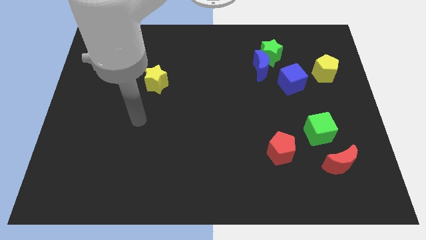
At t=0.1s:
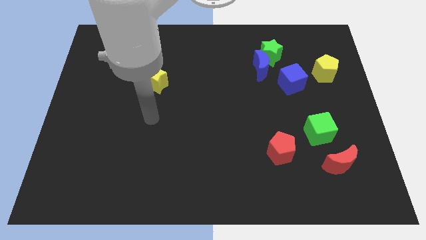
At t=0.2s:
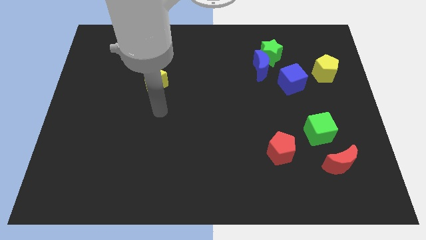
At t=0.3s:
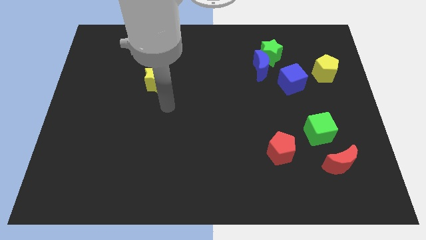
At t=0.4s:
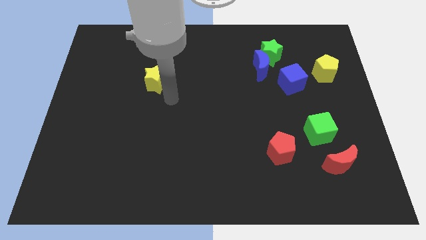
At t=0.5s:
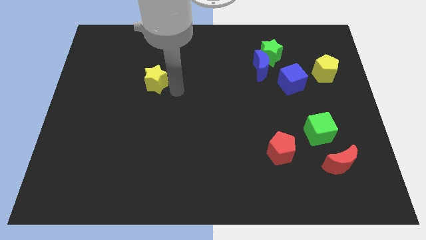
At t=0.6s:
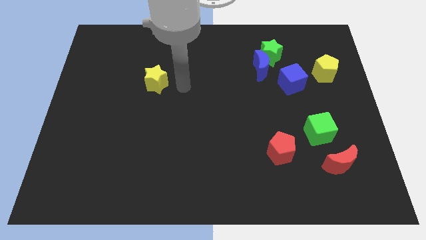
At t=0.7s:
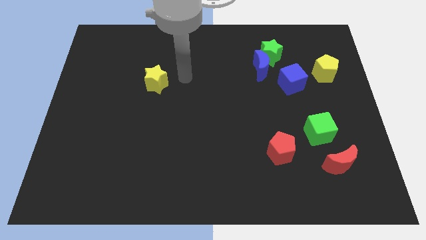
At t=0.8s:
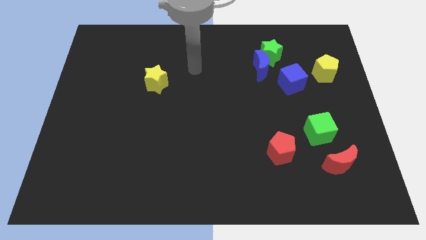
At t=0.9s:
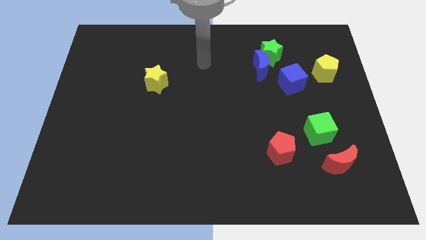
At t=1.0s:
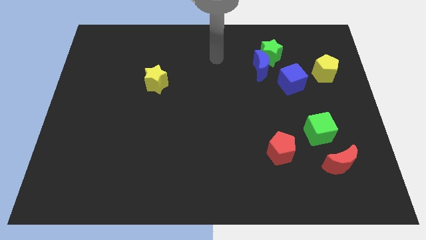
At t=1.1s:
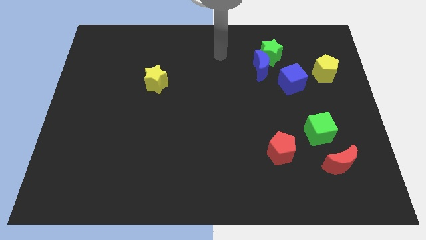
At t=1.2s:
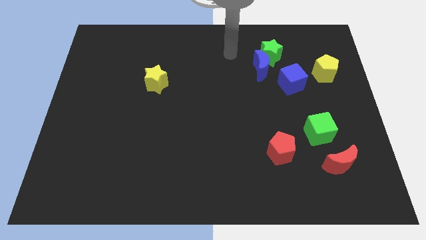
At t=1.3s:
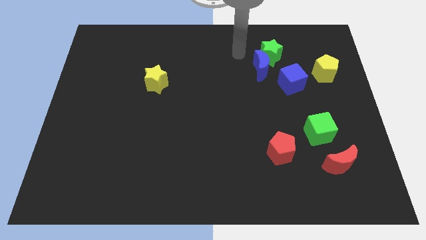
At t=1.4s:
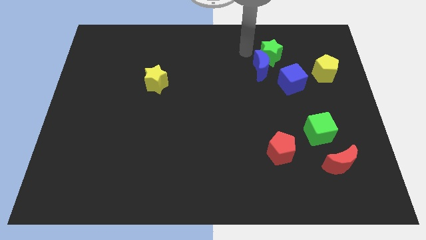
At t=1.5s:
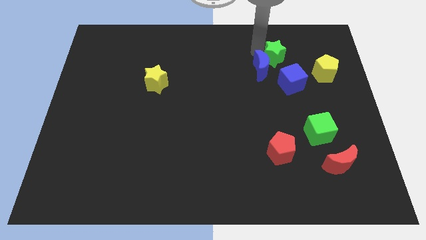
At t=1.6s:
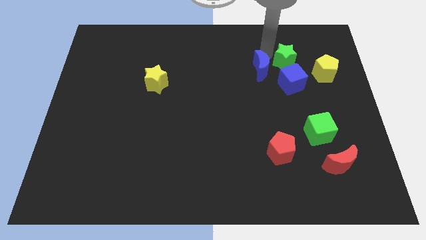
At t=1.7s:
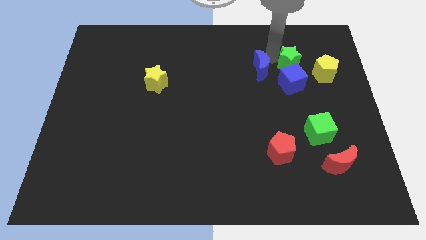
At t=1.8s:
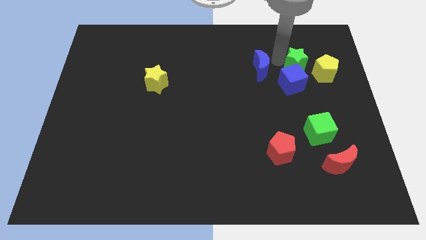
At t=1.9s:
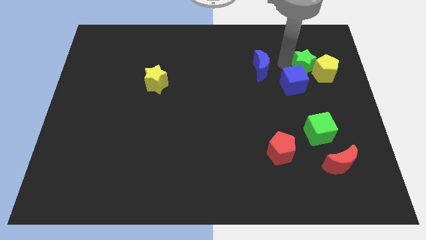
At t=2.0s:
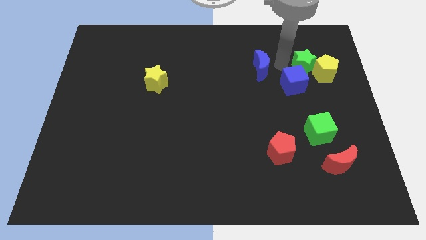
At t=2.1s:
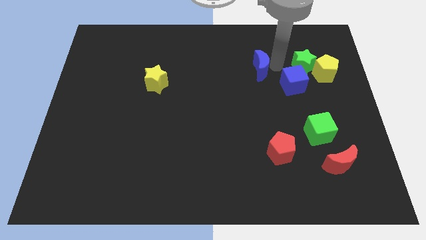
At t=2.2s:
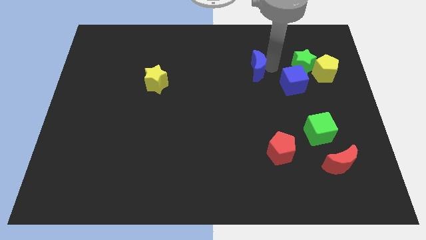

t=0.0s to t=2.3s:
move the blue moon away from the green star and blue cube

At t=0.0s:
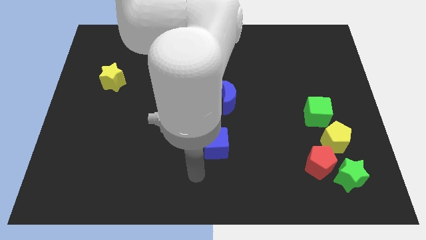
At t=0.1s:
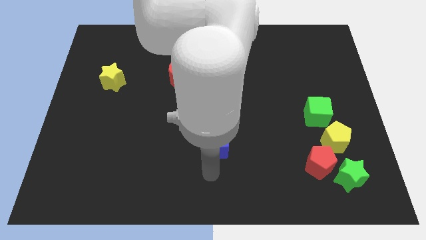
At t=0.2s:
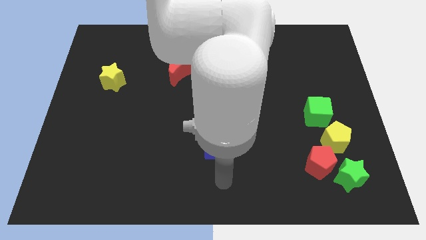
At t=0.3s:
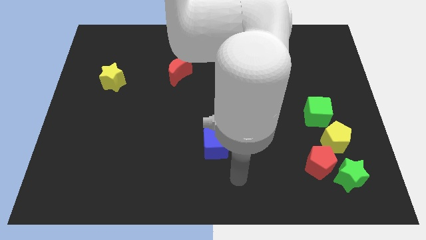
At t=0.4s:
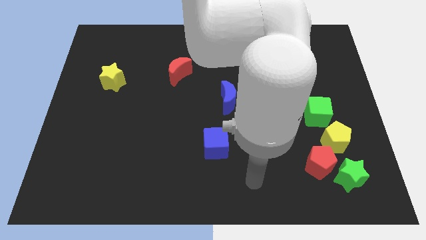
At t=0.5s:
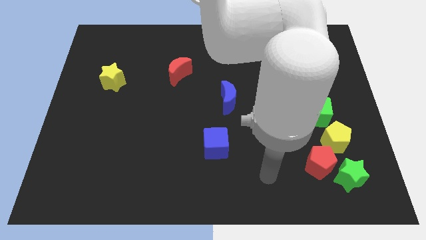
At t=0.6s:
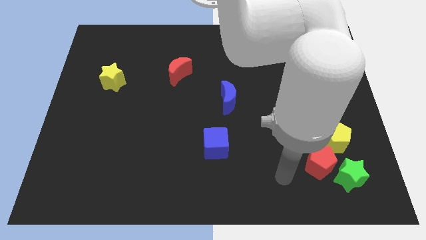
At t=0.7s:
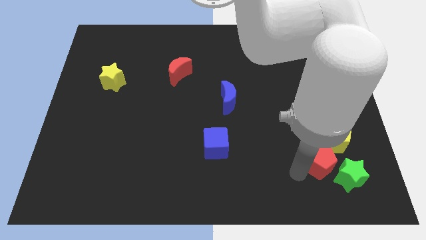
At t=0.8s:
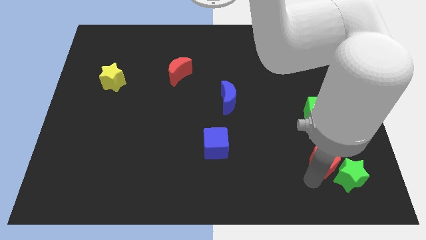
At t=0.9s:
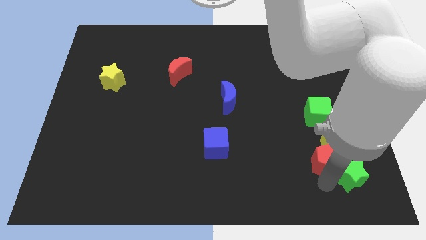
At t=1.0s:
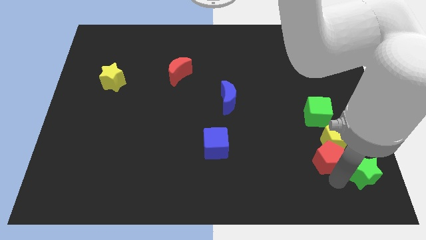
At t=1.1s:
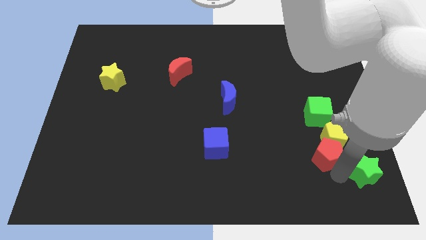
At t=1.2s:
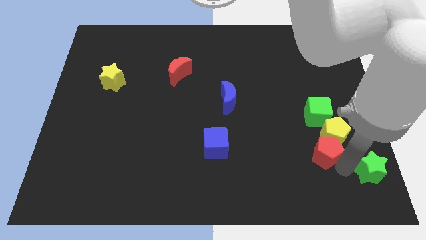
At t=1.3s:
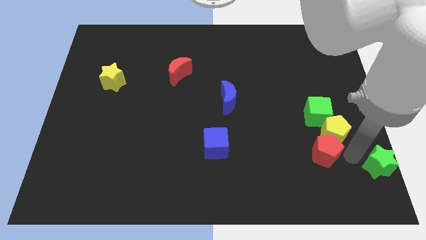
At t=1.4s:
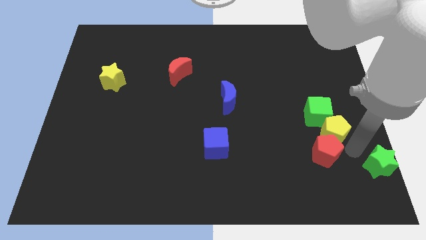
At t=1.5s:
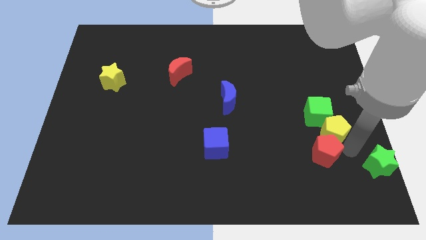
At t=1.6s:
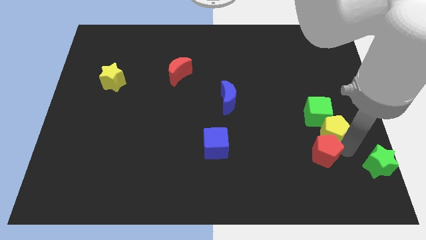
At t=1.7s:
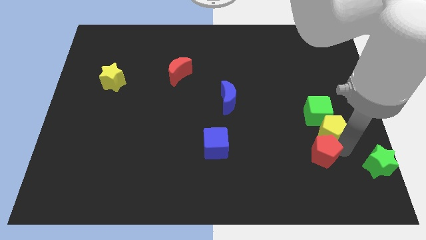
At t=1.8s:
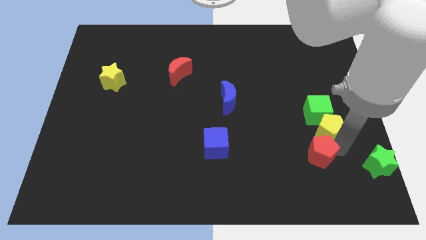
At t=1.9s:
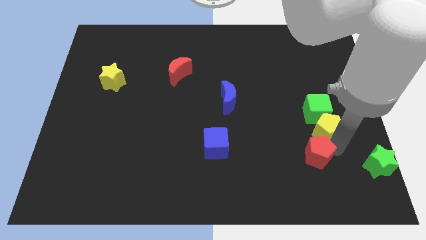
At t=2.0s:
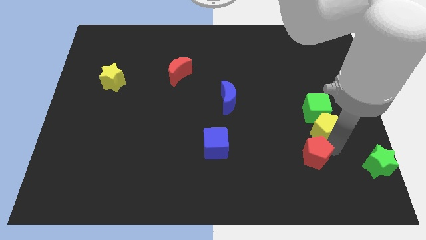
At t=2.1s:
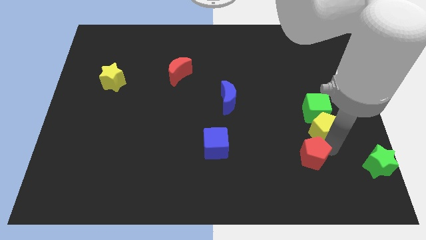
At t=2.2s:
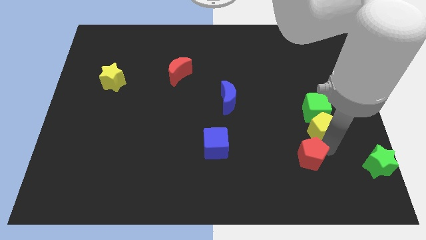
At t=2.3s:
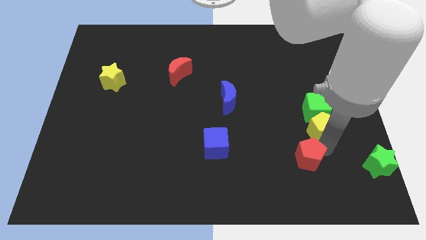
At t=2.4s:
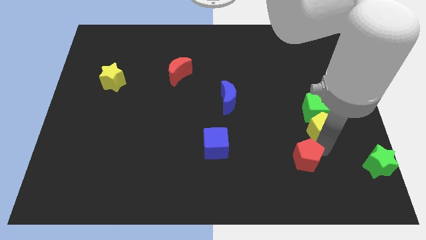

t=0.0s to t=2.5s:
separate the red pentagon from the green star and yellow pentagon

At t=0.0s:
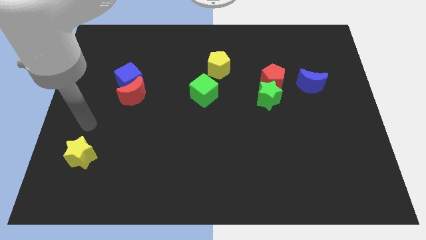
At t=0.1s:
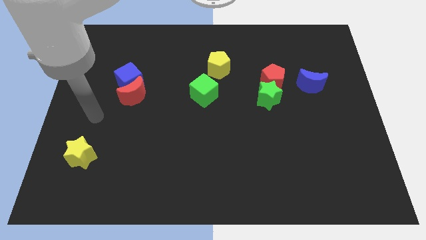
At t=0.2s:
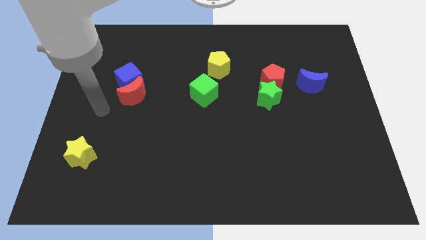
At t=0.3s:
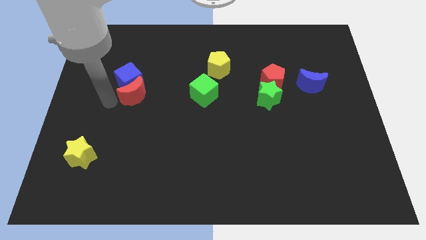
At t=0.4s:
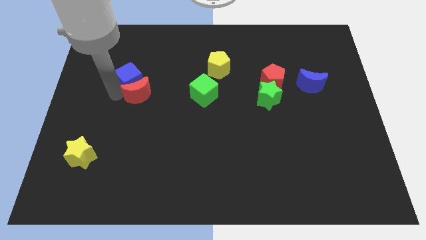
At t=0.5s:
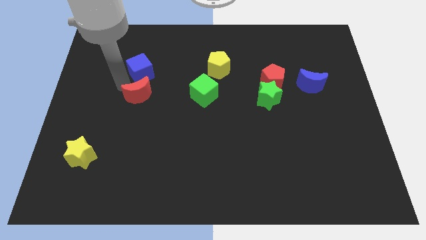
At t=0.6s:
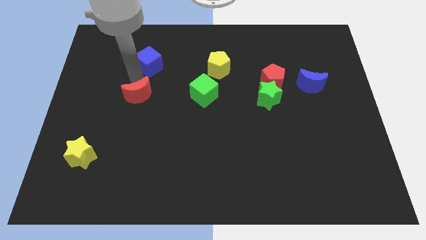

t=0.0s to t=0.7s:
pull the red moon apart from the blue cube

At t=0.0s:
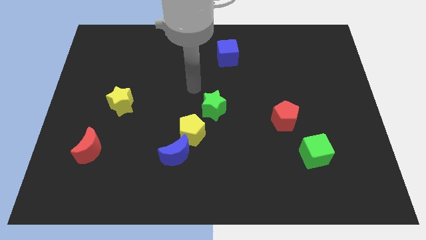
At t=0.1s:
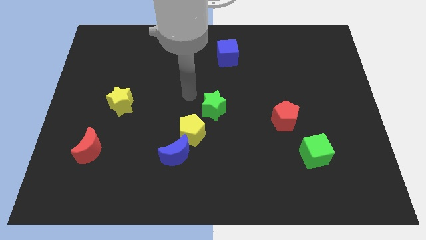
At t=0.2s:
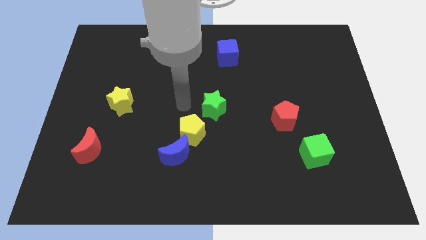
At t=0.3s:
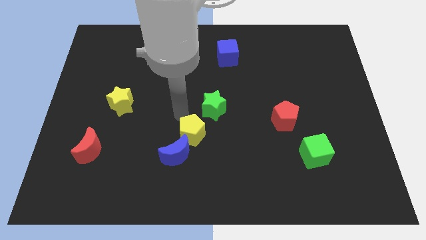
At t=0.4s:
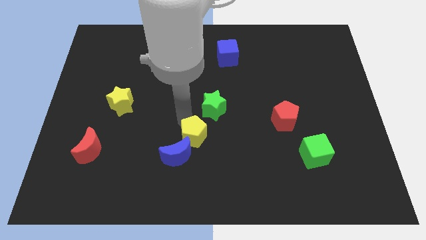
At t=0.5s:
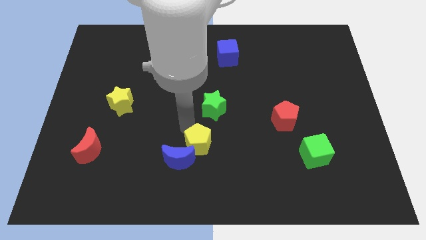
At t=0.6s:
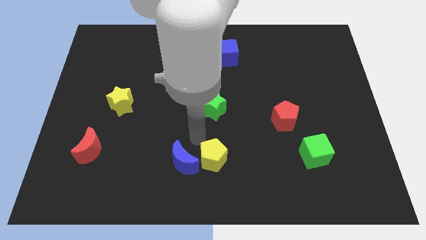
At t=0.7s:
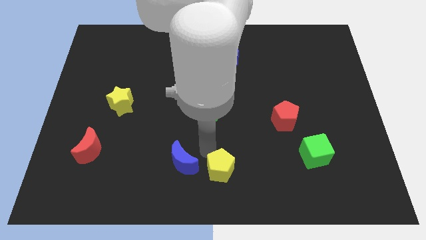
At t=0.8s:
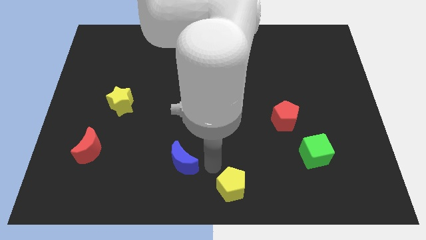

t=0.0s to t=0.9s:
pull the blue moon apart from the yellow pentagon

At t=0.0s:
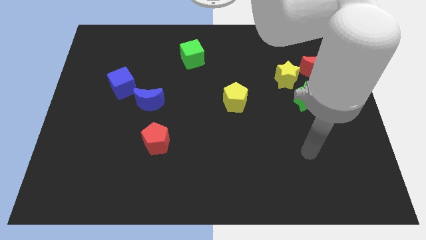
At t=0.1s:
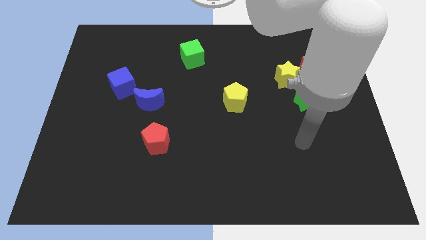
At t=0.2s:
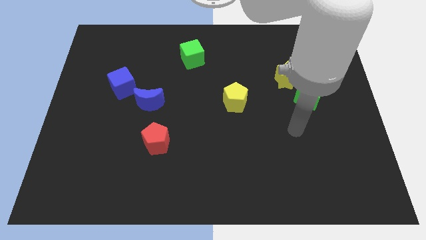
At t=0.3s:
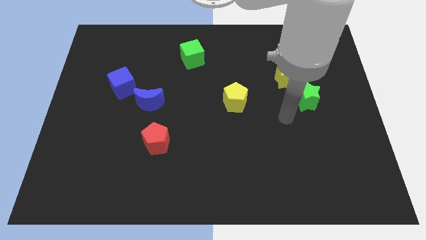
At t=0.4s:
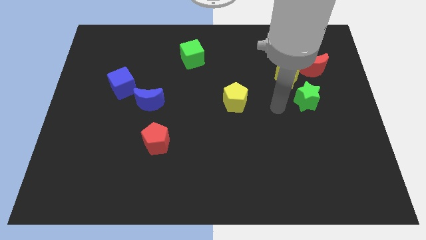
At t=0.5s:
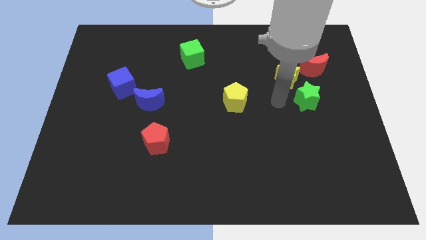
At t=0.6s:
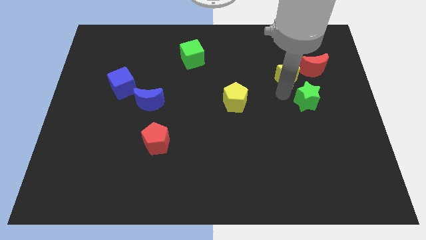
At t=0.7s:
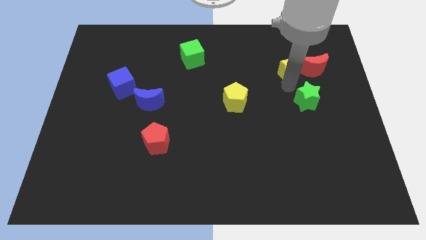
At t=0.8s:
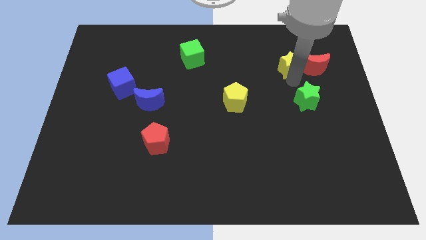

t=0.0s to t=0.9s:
separate the green star from the yellow star

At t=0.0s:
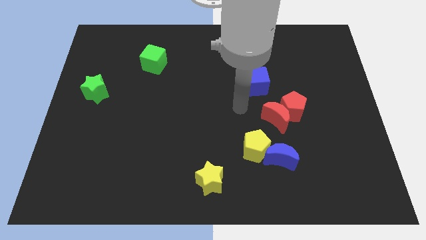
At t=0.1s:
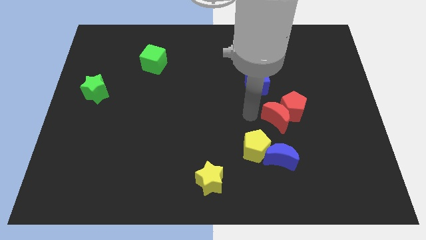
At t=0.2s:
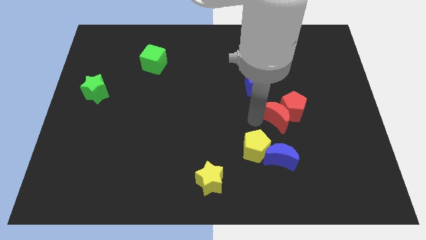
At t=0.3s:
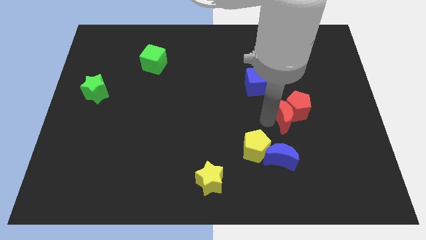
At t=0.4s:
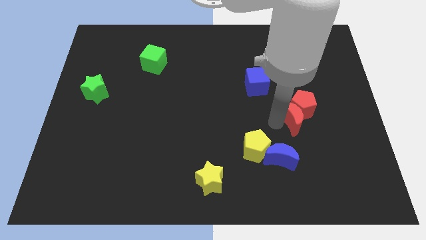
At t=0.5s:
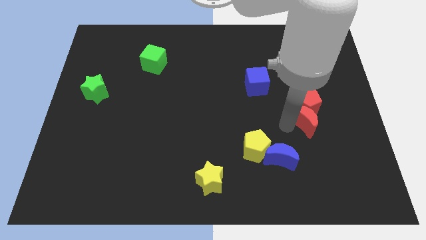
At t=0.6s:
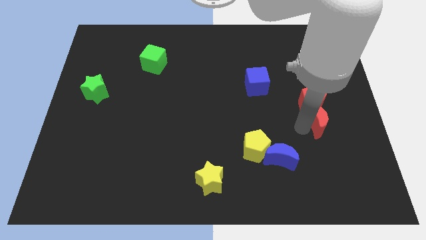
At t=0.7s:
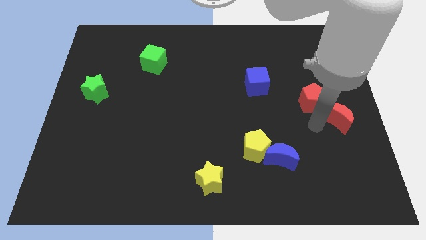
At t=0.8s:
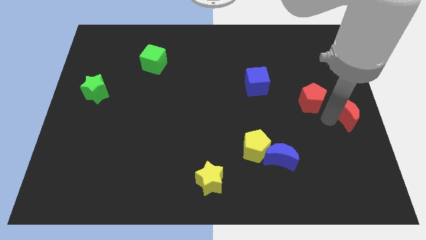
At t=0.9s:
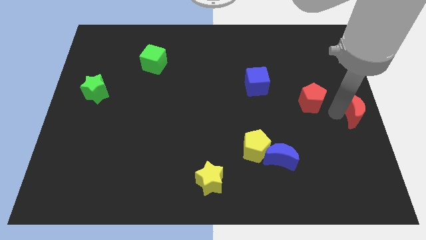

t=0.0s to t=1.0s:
move the red pentagon away from the red moon

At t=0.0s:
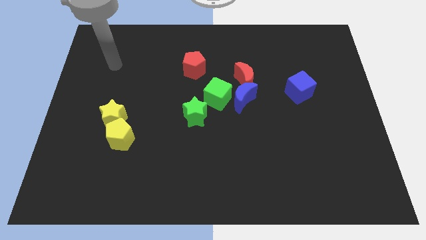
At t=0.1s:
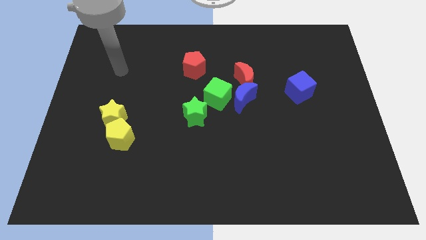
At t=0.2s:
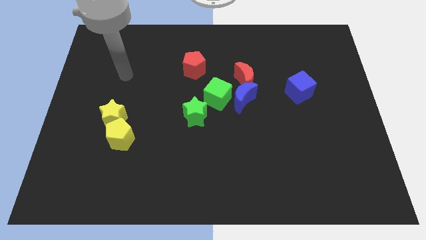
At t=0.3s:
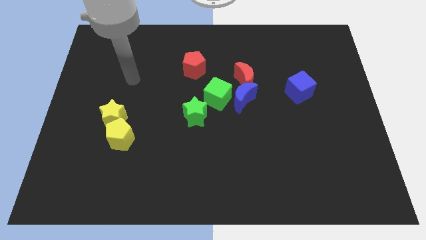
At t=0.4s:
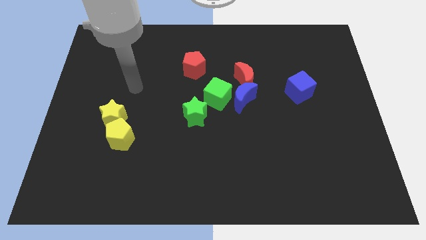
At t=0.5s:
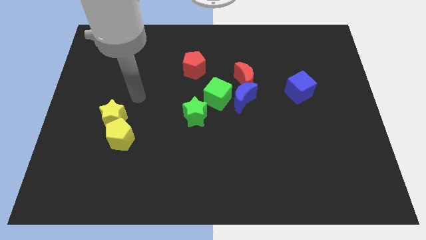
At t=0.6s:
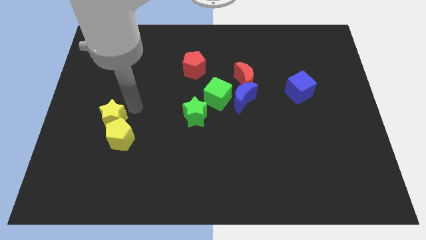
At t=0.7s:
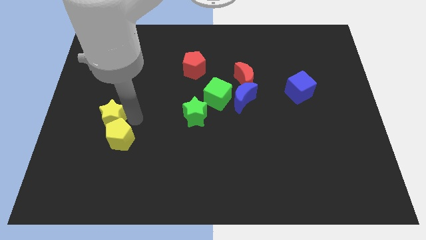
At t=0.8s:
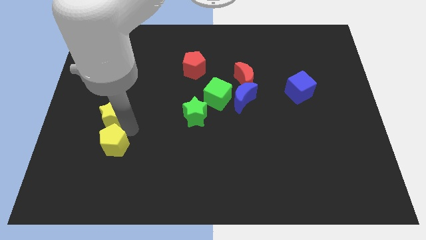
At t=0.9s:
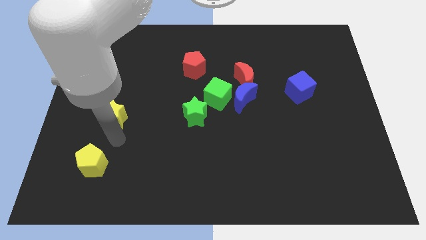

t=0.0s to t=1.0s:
move the yellow star away from the yellow pentagon
